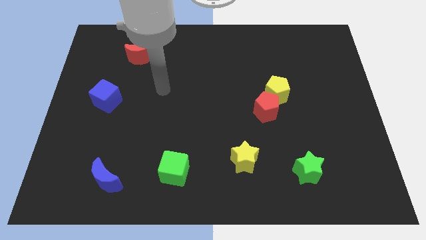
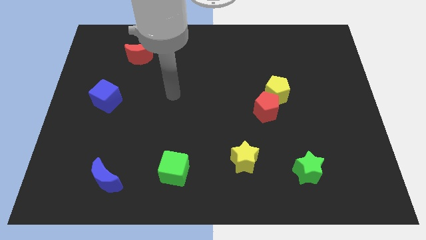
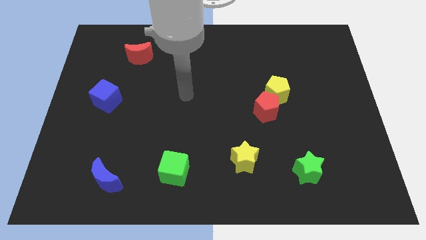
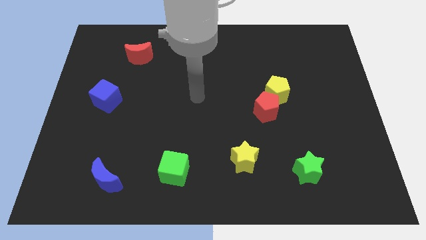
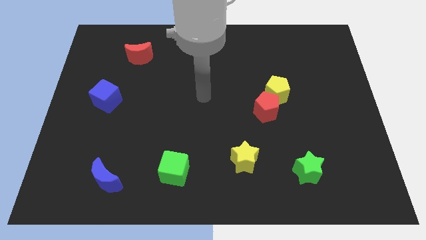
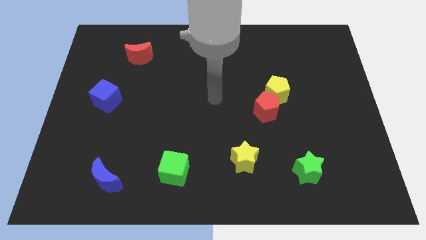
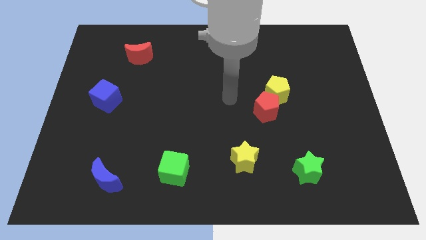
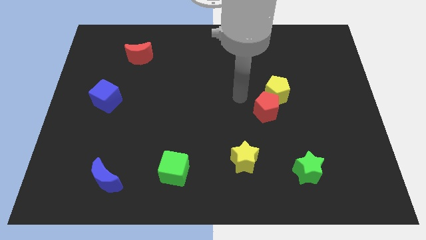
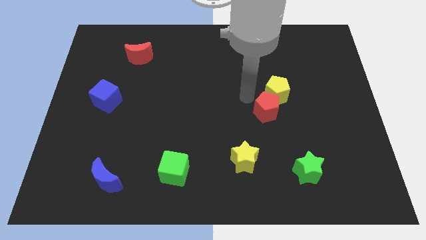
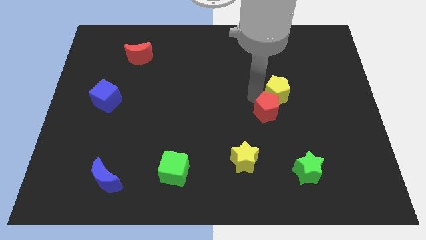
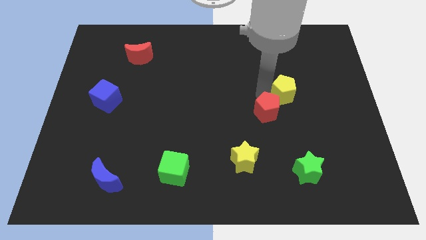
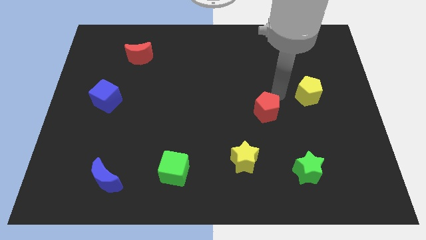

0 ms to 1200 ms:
pull the red pentagon apart from the yellow pentagon

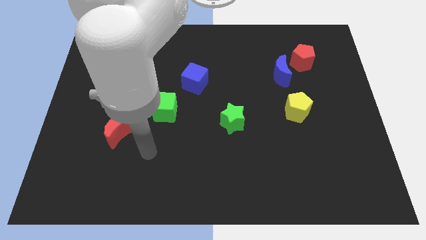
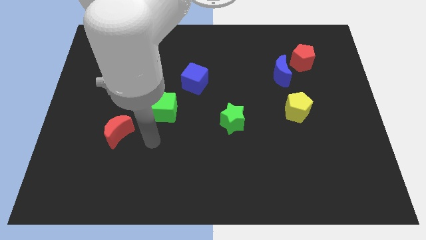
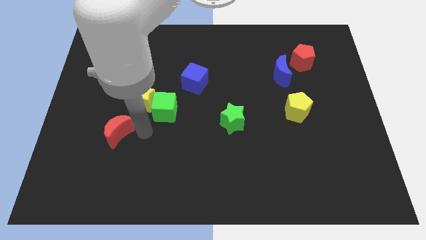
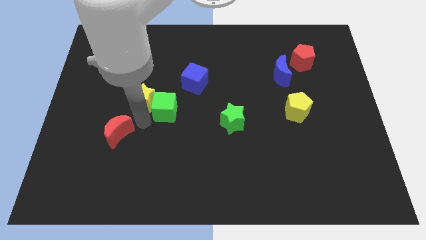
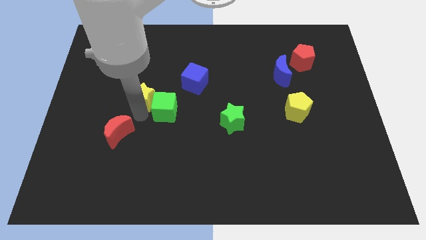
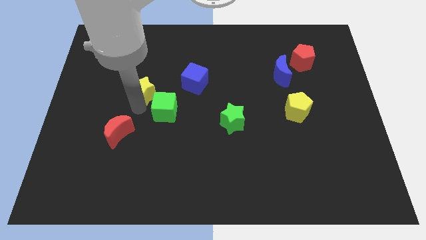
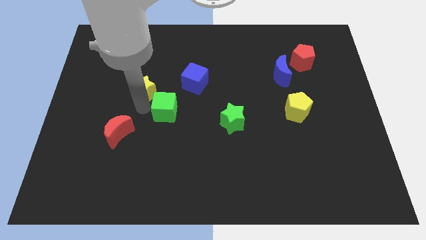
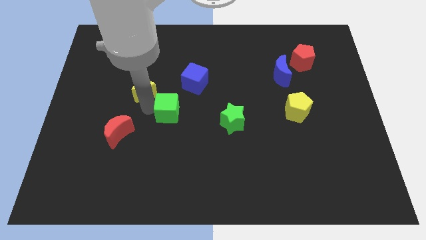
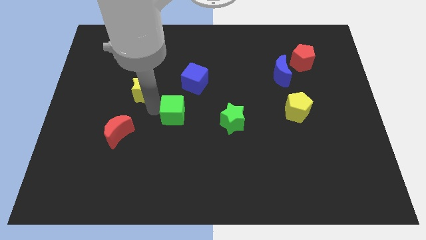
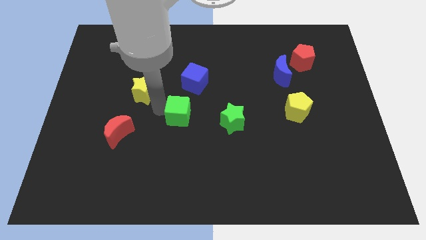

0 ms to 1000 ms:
move the green cube away from the yellow star

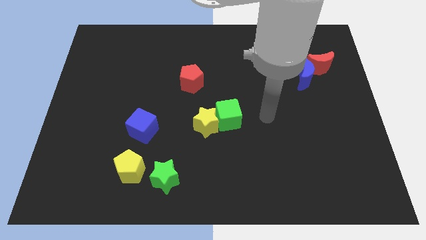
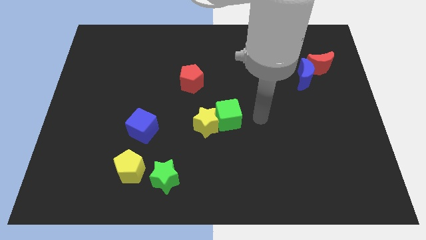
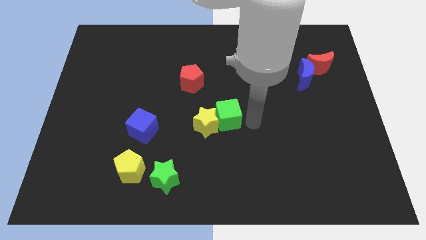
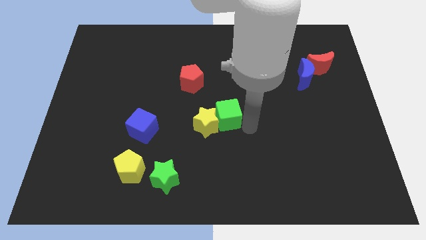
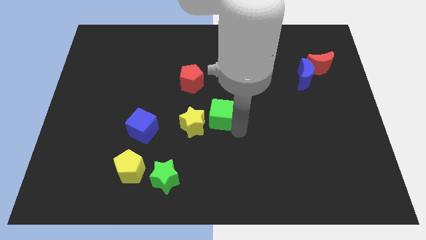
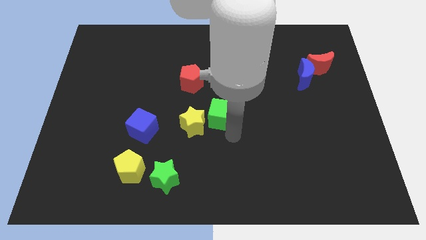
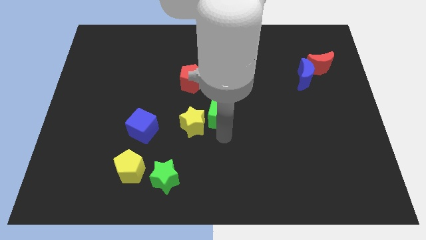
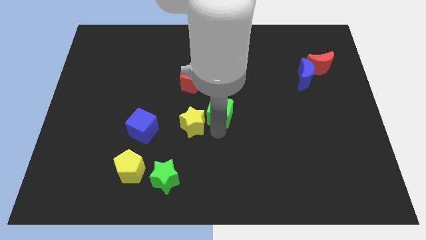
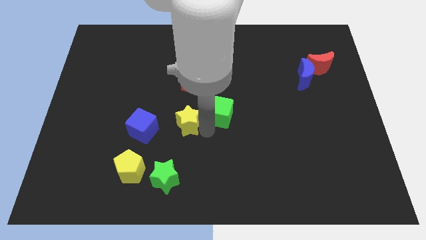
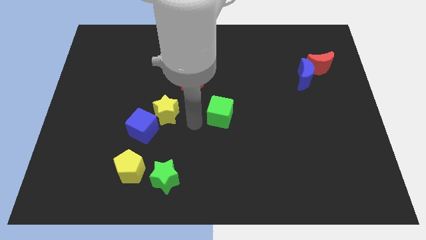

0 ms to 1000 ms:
pull the green cube apart from the yellow star

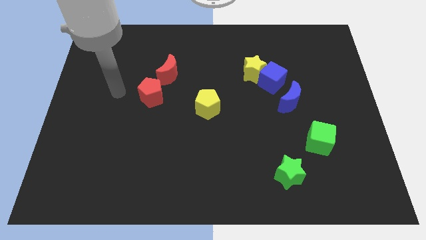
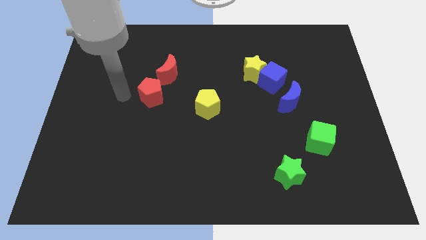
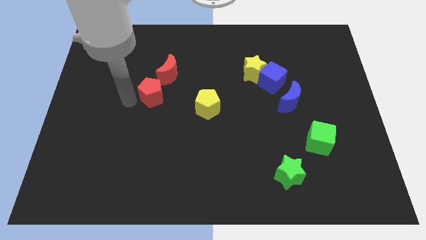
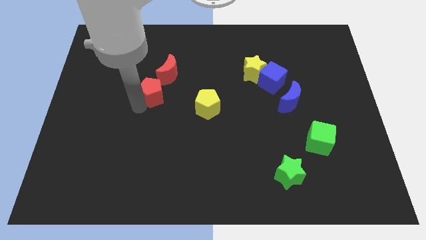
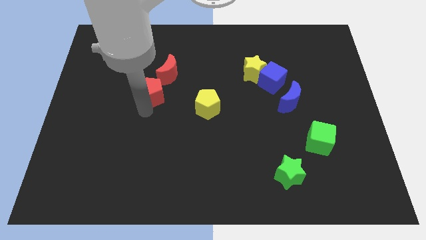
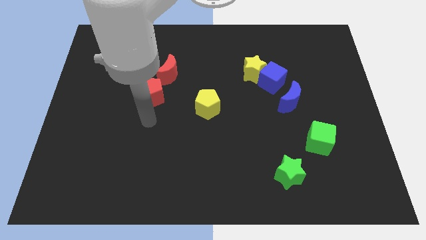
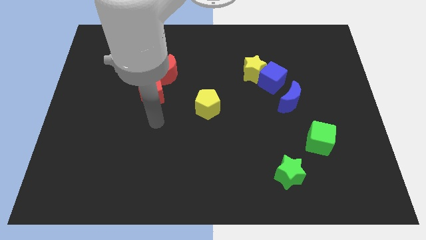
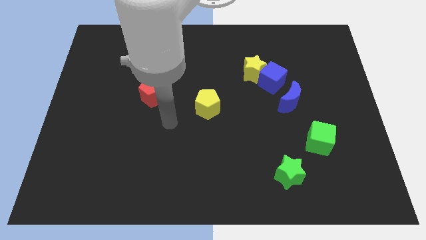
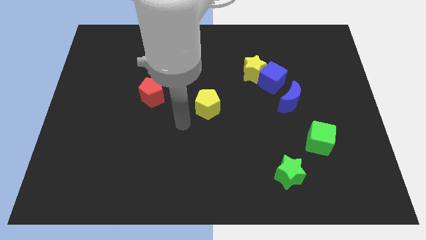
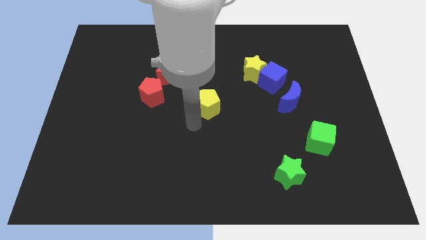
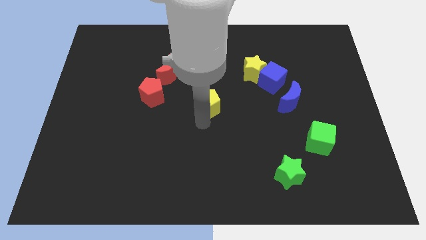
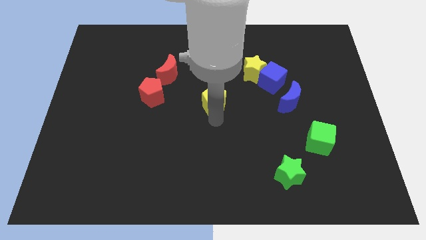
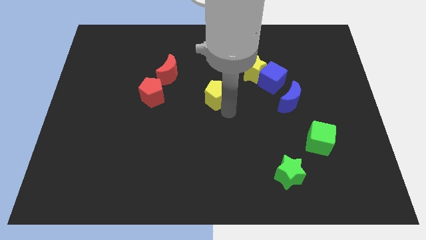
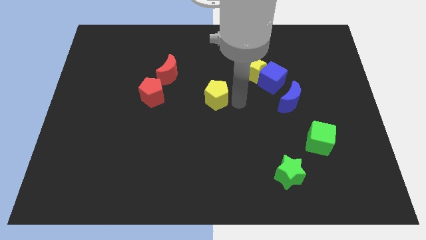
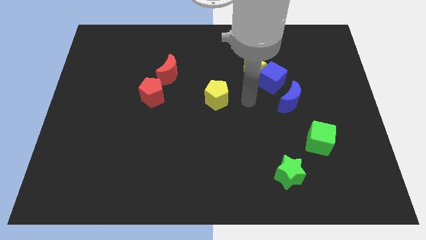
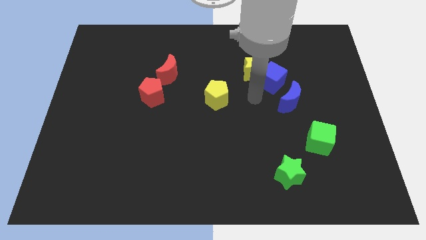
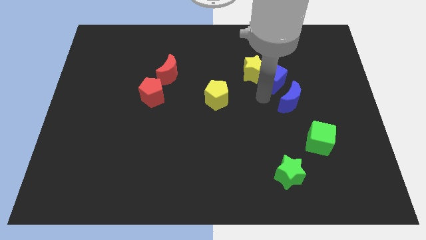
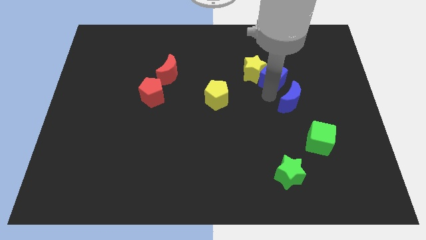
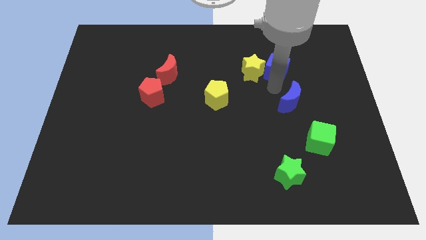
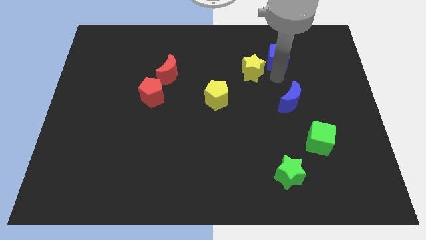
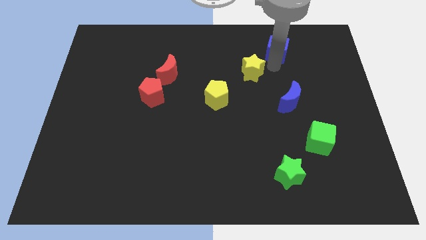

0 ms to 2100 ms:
move the yellow star away from the blue cube

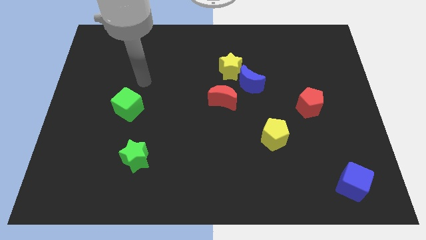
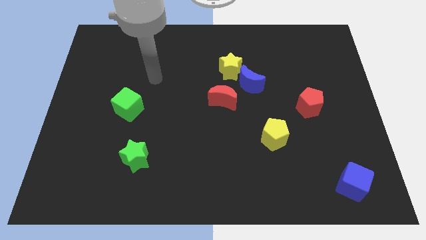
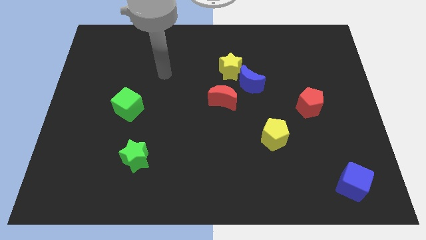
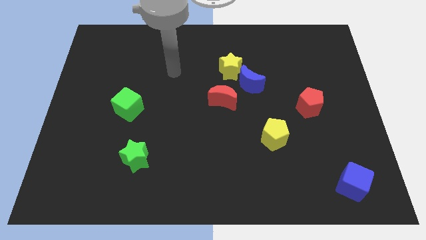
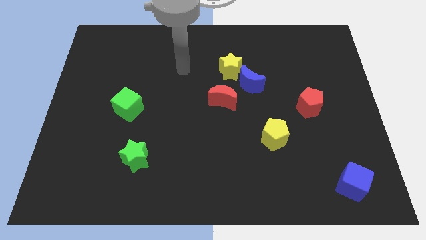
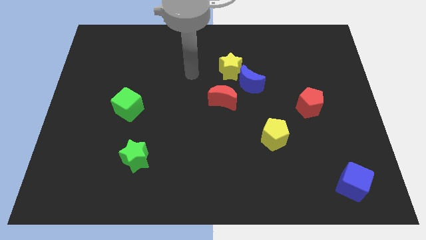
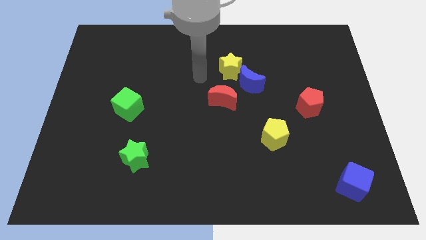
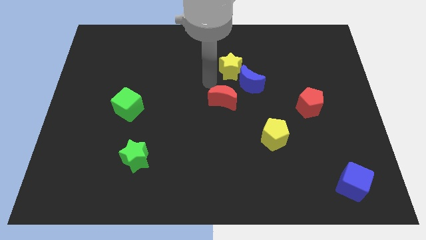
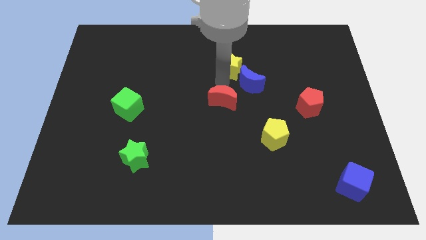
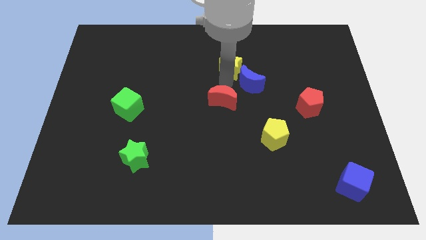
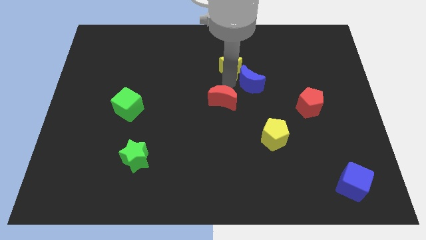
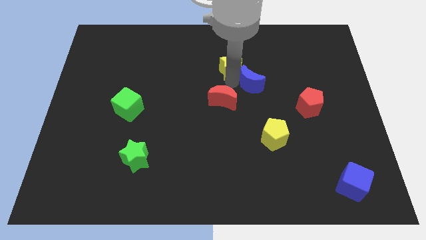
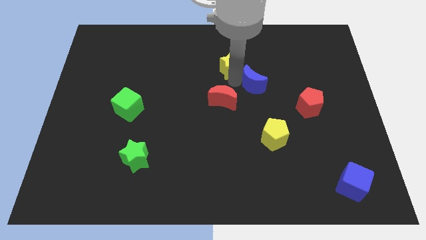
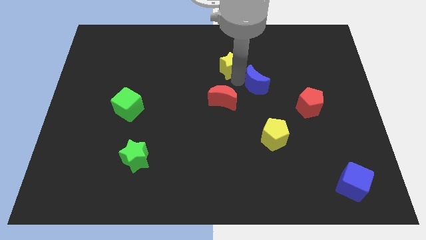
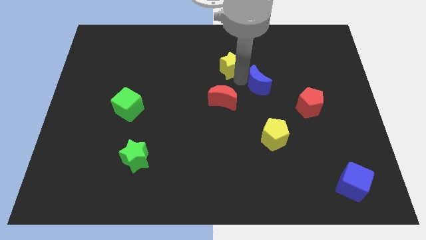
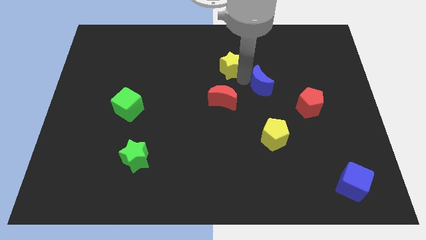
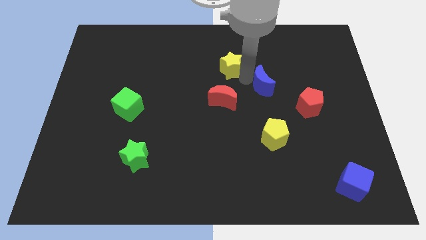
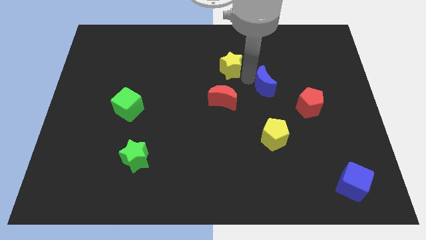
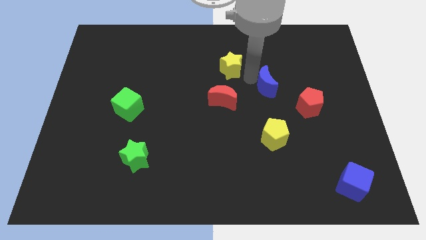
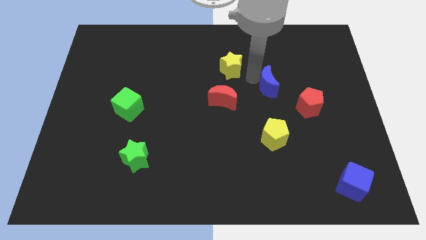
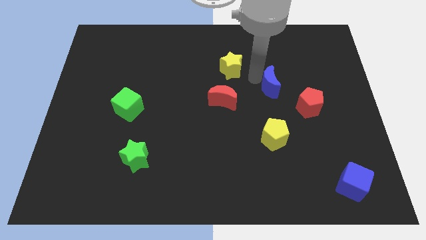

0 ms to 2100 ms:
separate the blue moon from the yellow star and red moon

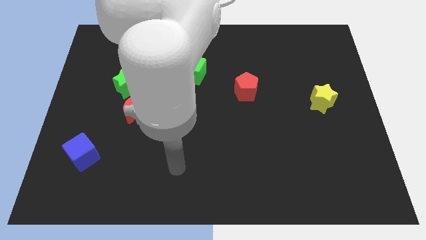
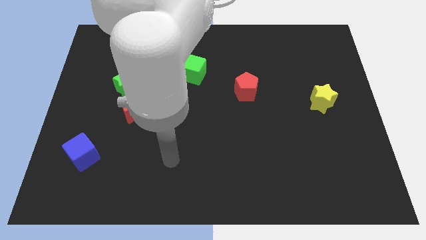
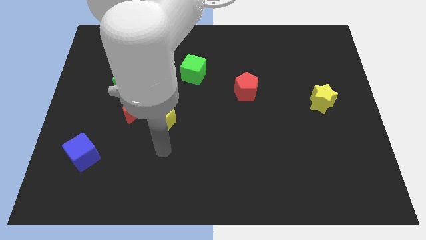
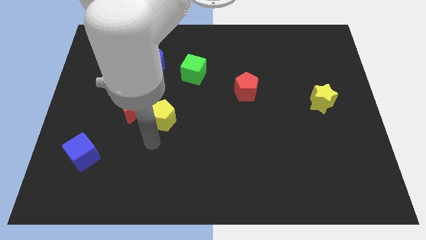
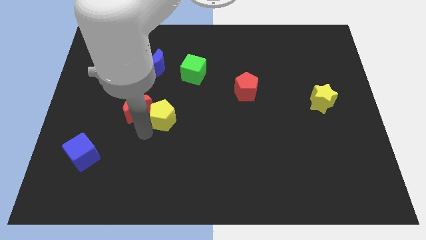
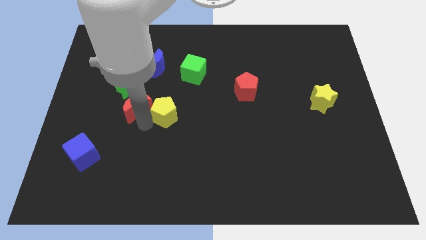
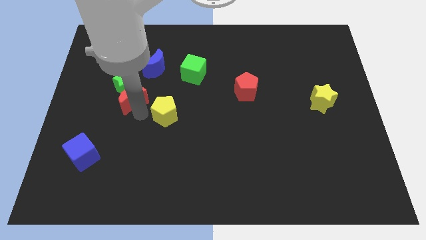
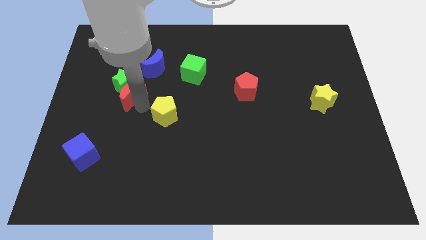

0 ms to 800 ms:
separate the yellow pentagon from the red moon

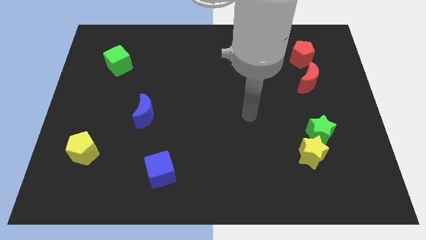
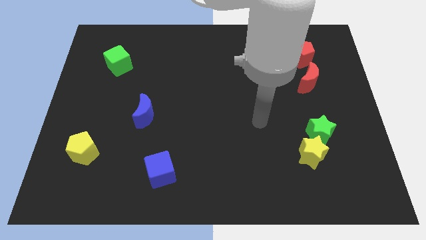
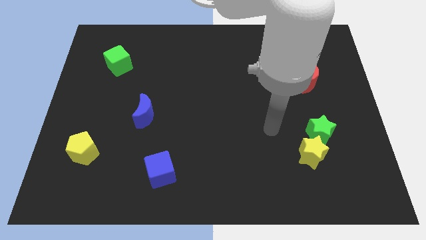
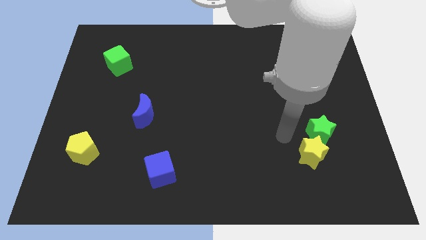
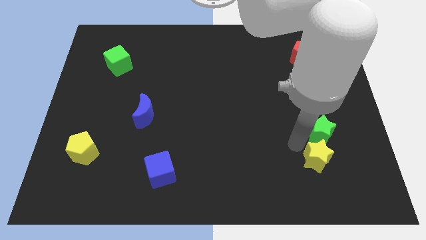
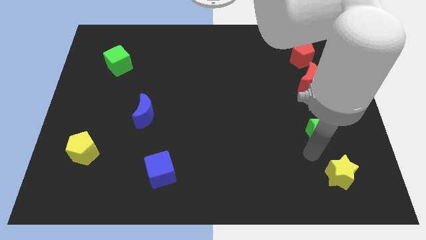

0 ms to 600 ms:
move the green star away from the yellow star

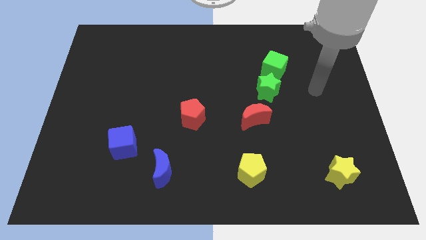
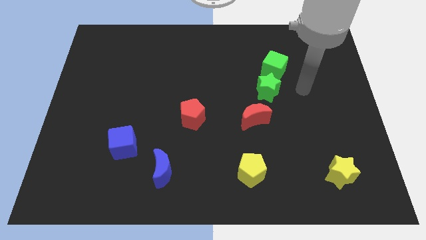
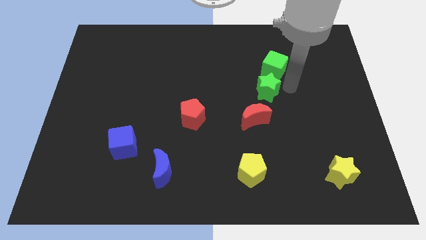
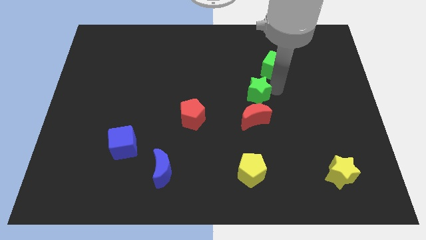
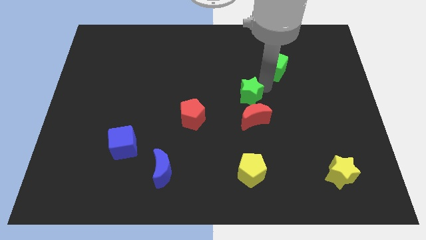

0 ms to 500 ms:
move the green cube away from the green star

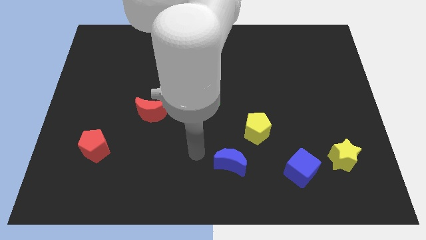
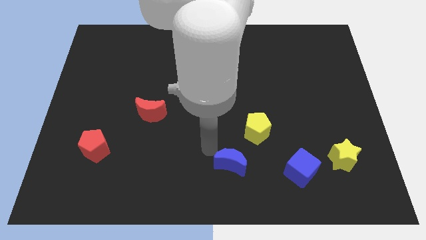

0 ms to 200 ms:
separate the blue cube from the yellow star
